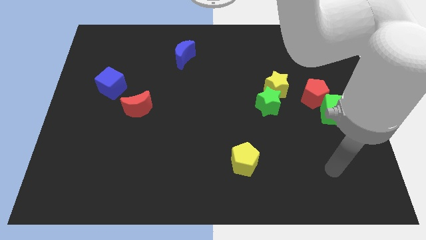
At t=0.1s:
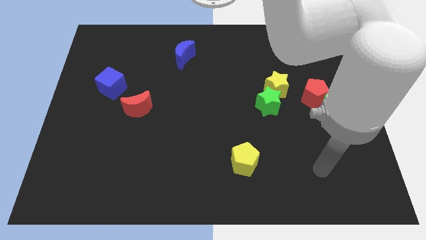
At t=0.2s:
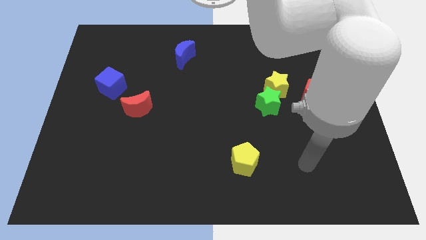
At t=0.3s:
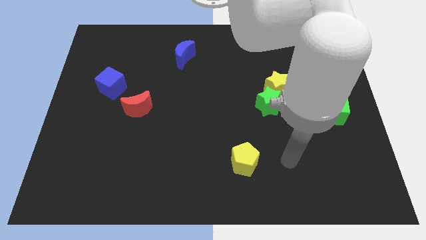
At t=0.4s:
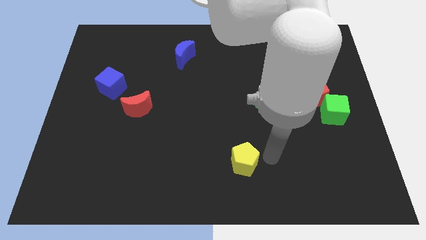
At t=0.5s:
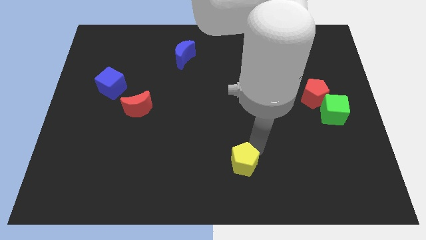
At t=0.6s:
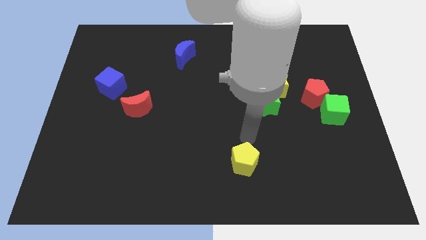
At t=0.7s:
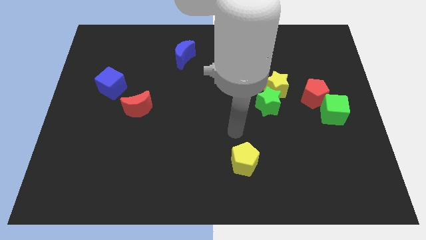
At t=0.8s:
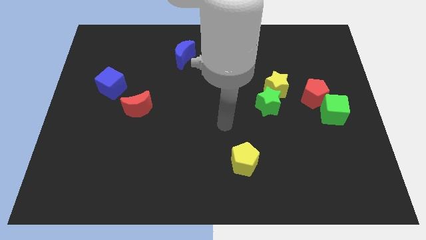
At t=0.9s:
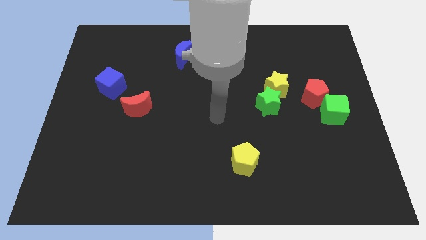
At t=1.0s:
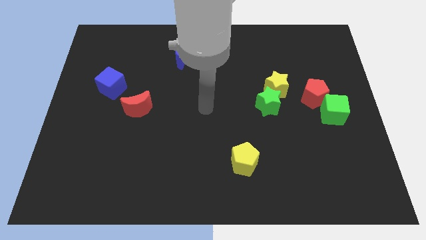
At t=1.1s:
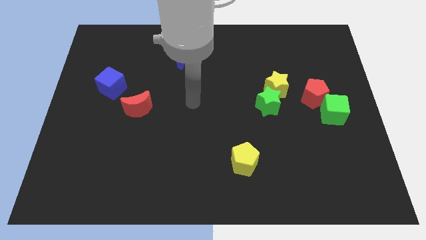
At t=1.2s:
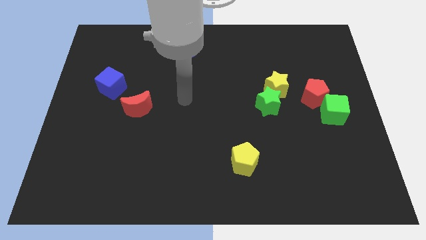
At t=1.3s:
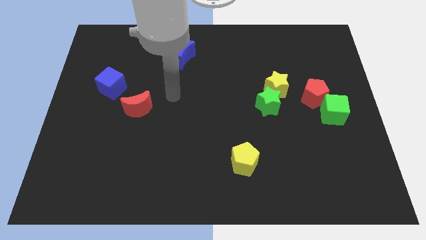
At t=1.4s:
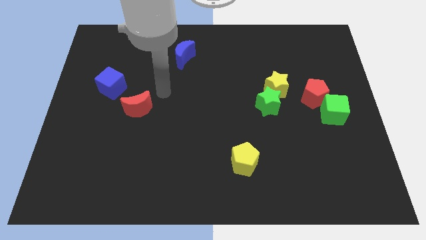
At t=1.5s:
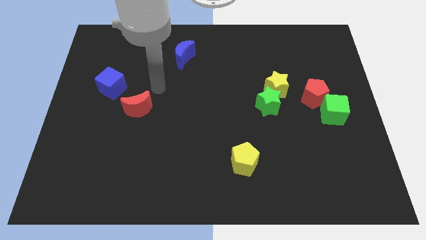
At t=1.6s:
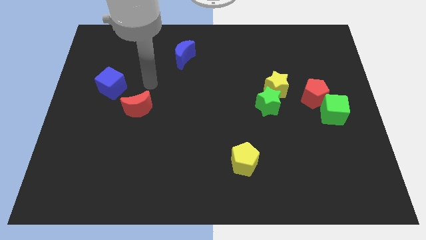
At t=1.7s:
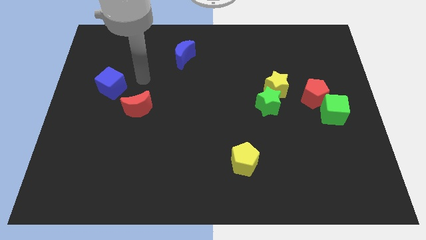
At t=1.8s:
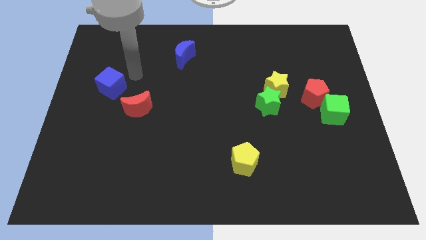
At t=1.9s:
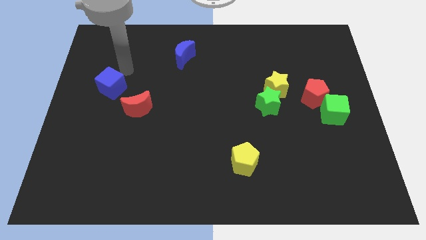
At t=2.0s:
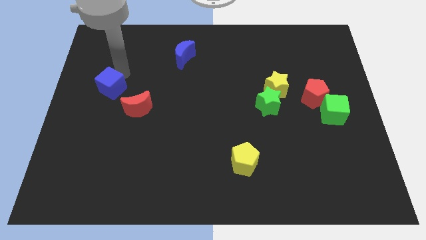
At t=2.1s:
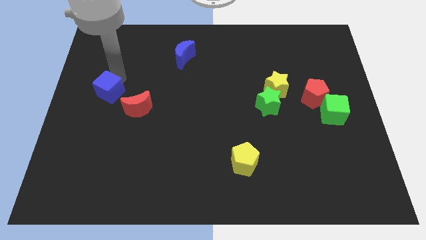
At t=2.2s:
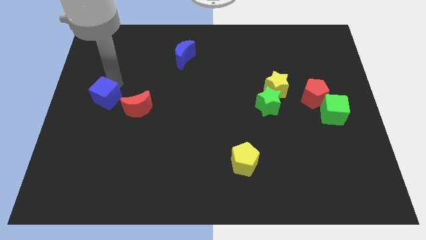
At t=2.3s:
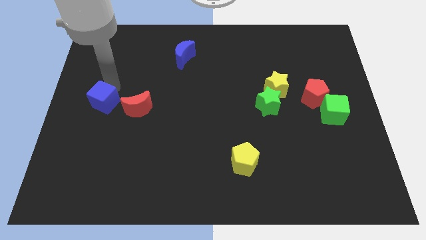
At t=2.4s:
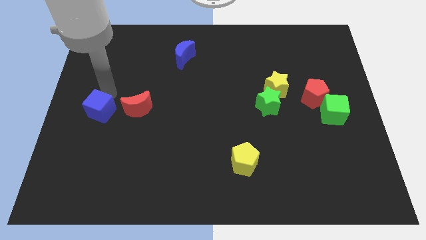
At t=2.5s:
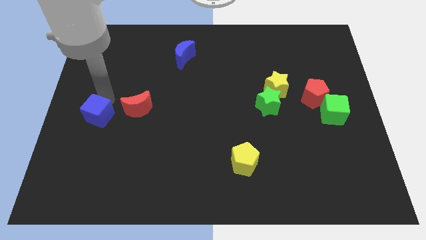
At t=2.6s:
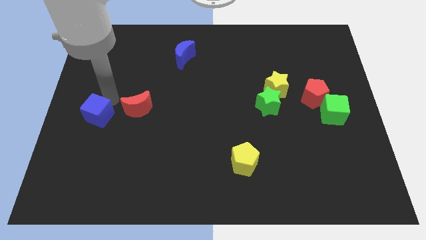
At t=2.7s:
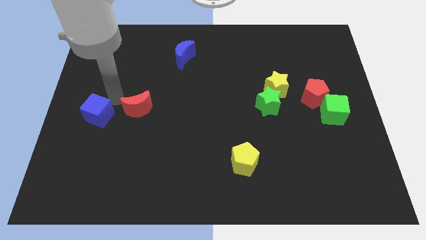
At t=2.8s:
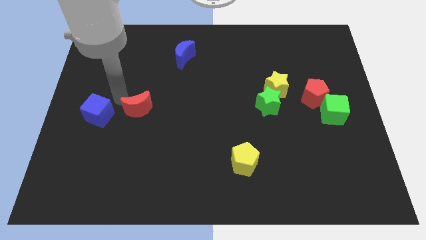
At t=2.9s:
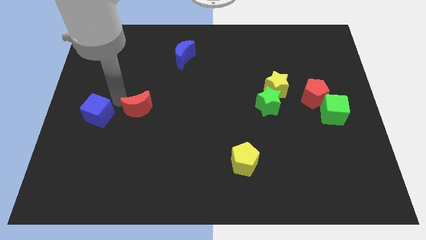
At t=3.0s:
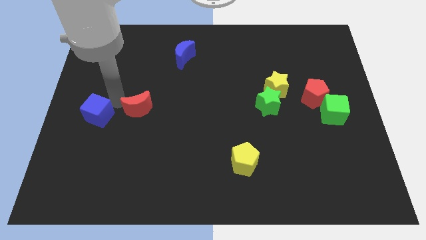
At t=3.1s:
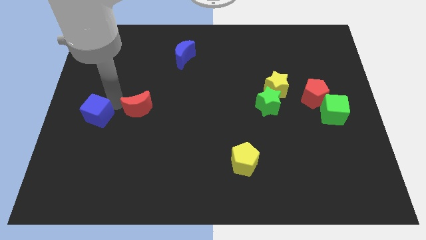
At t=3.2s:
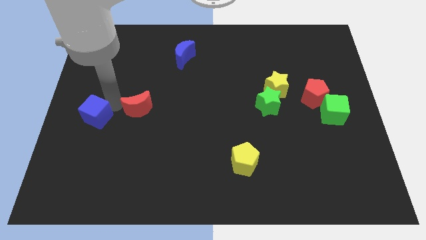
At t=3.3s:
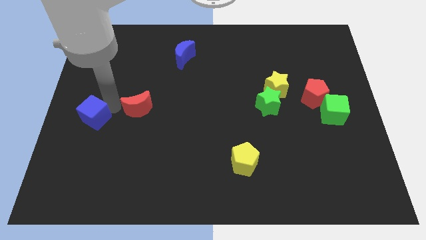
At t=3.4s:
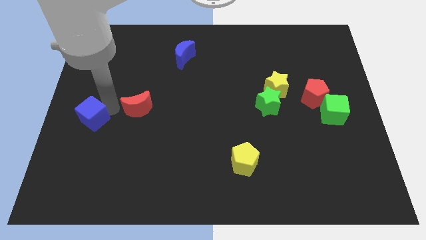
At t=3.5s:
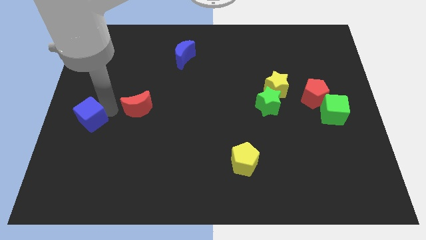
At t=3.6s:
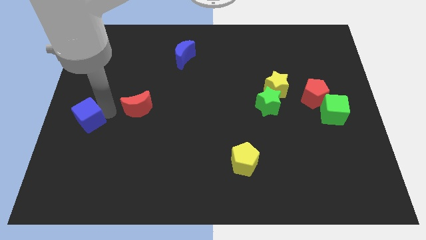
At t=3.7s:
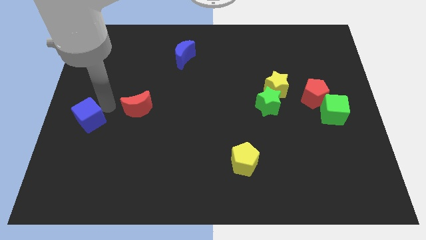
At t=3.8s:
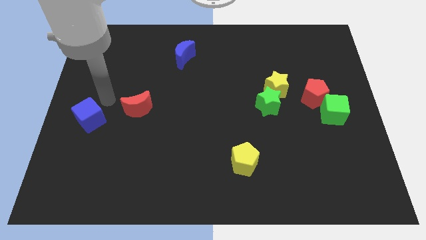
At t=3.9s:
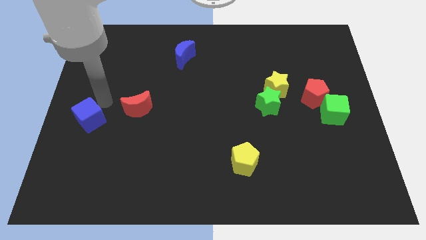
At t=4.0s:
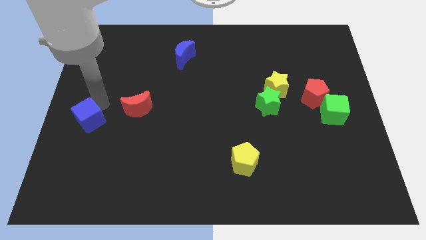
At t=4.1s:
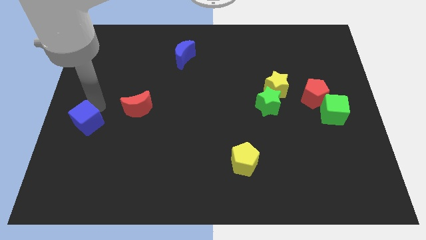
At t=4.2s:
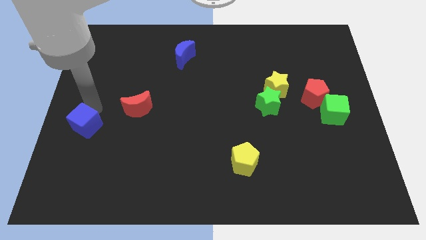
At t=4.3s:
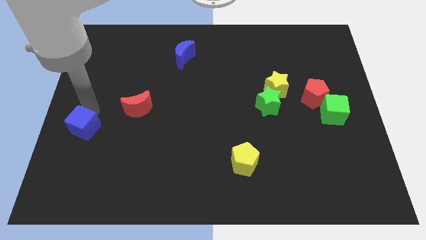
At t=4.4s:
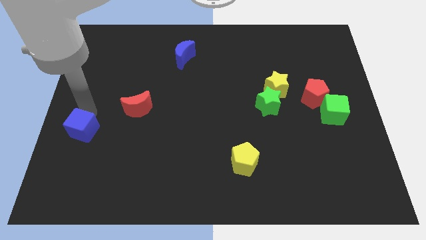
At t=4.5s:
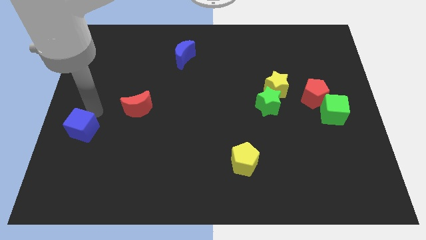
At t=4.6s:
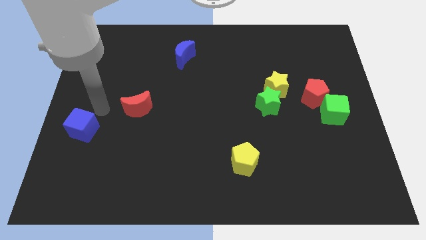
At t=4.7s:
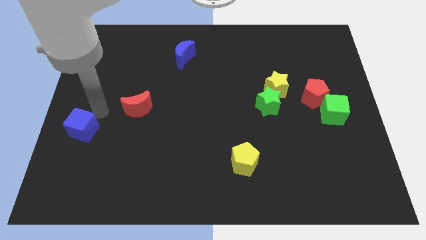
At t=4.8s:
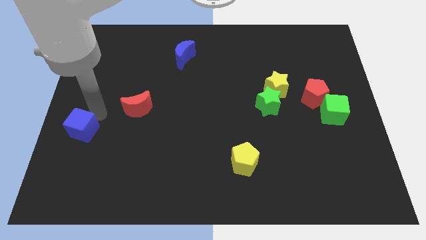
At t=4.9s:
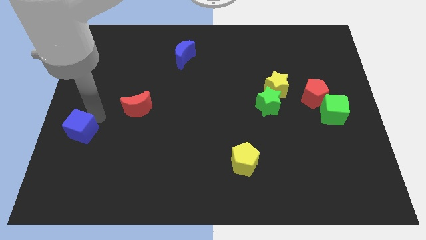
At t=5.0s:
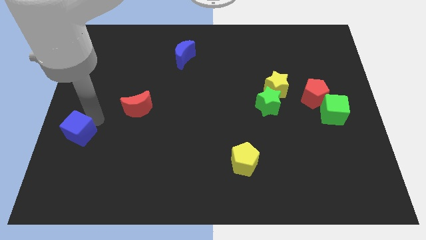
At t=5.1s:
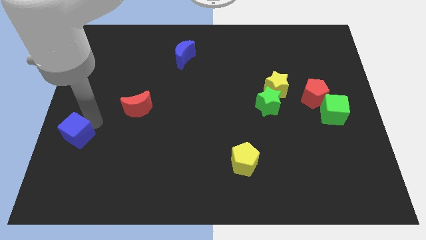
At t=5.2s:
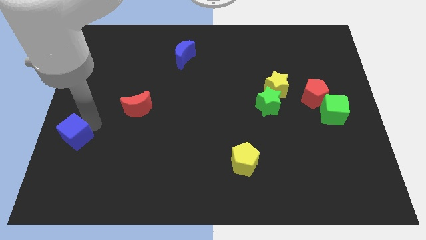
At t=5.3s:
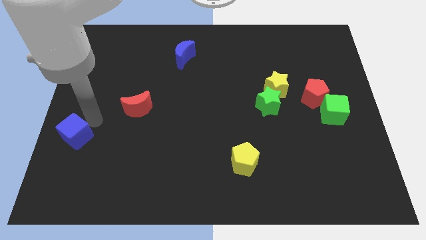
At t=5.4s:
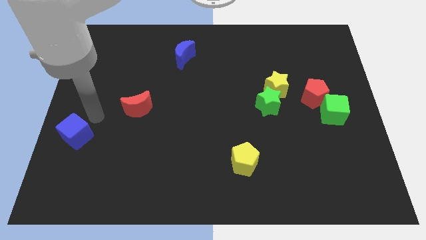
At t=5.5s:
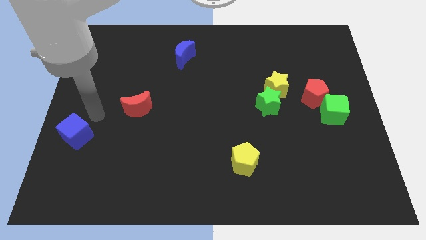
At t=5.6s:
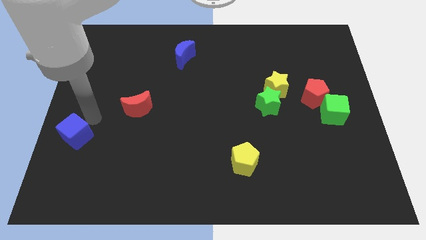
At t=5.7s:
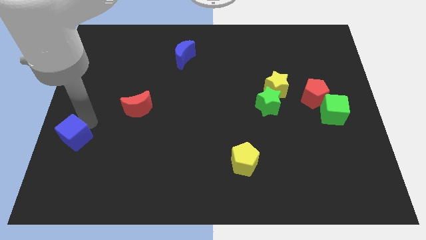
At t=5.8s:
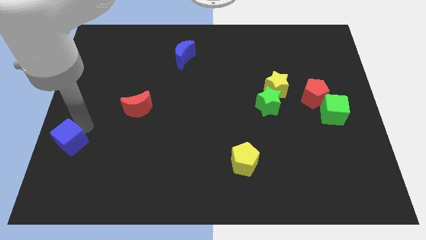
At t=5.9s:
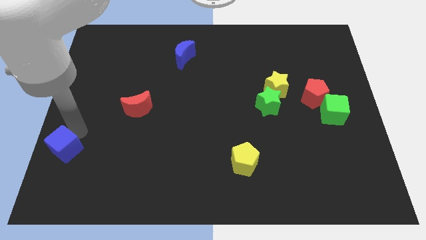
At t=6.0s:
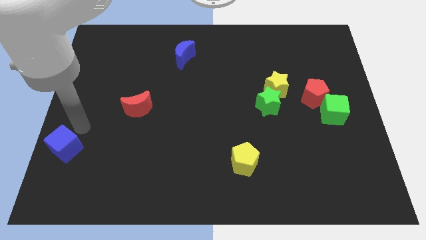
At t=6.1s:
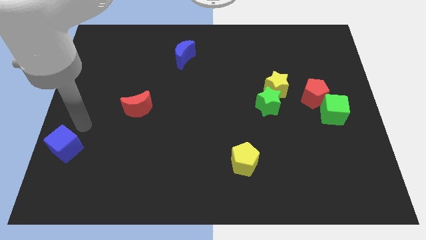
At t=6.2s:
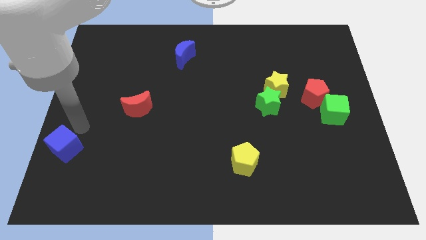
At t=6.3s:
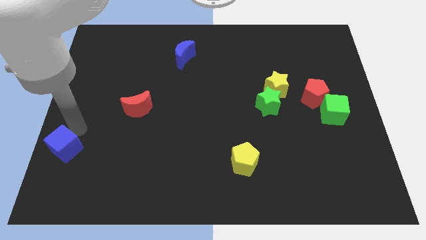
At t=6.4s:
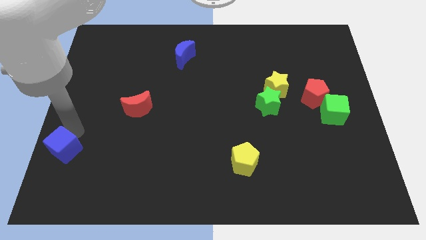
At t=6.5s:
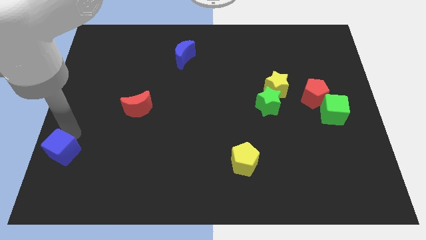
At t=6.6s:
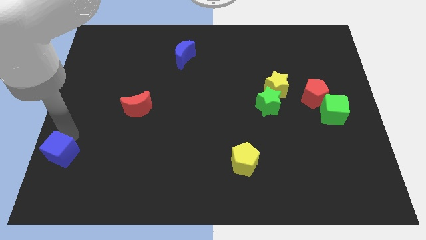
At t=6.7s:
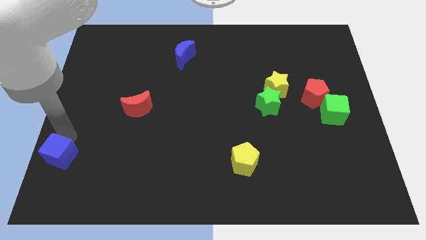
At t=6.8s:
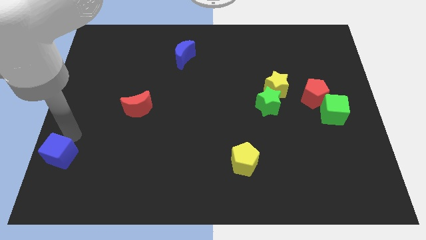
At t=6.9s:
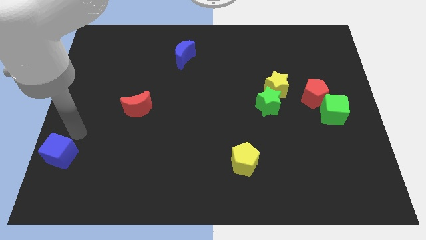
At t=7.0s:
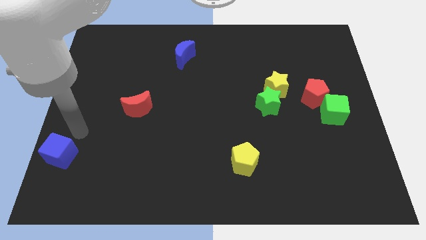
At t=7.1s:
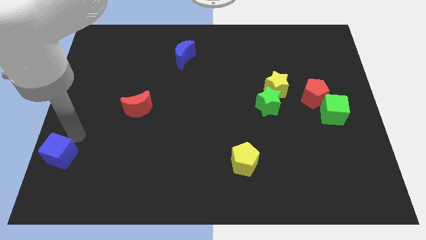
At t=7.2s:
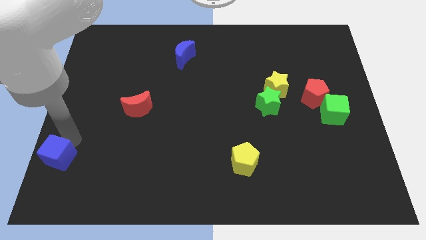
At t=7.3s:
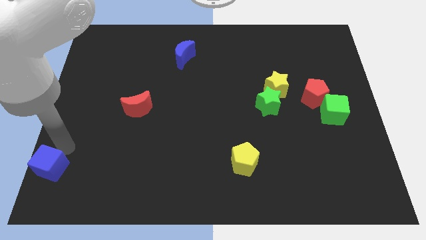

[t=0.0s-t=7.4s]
put the blue cube to the lower left corner

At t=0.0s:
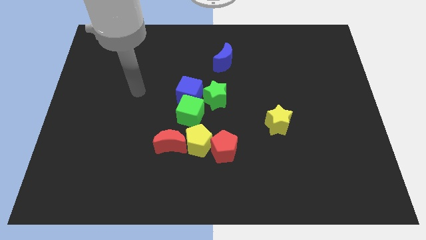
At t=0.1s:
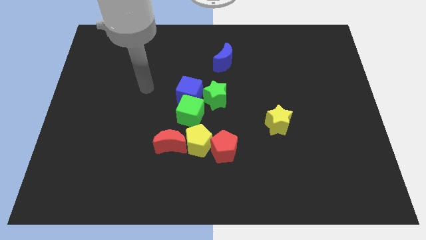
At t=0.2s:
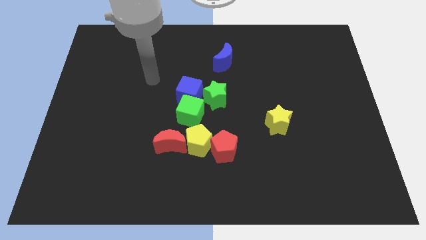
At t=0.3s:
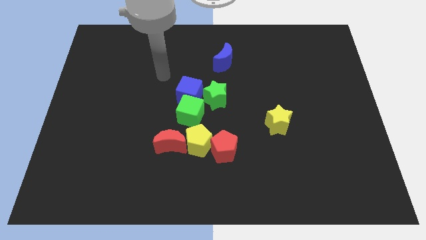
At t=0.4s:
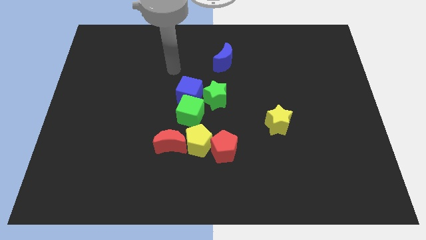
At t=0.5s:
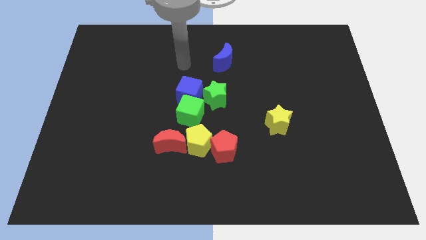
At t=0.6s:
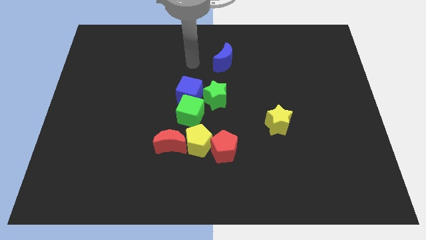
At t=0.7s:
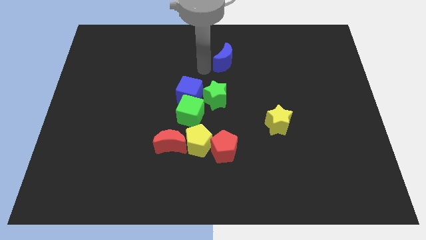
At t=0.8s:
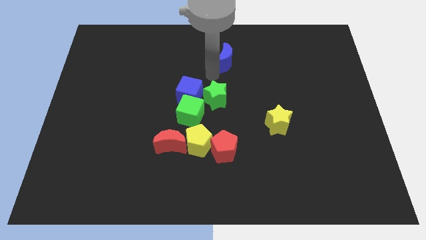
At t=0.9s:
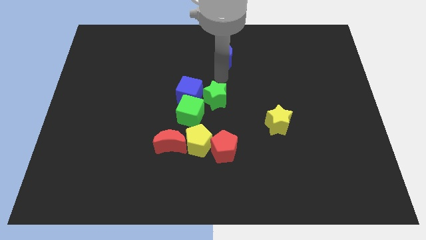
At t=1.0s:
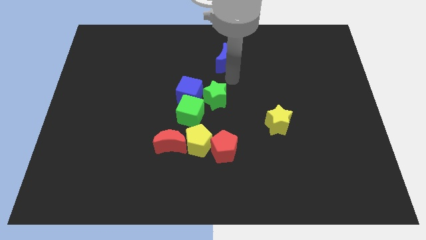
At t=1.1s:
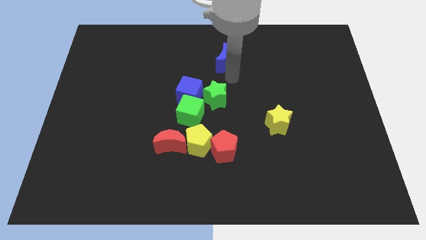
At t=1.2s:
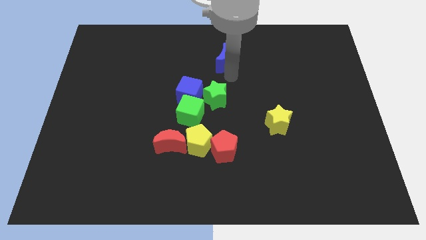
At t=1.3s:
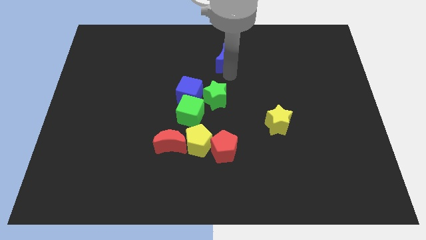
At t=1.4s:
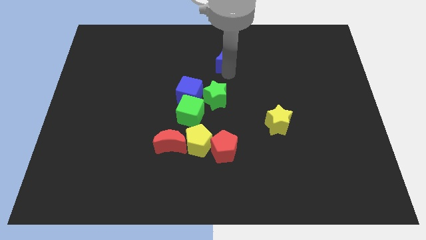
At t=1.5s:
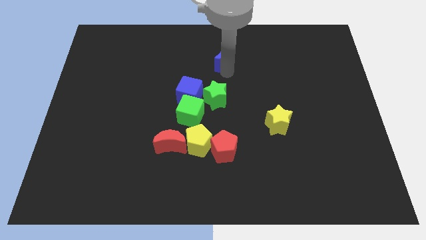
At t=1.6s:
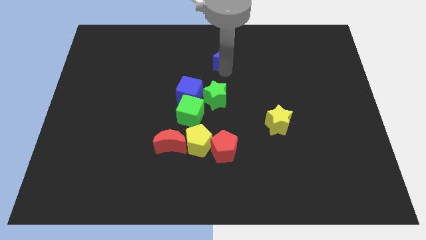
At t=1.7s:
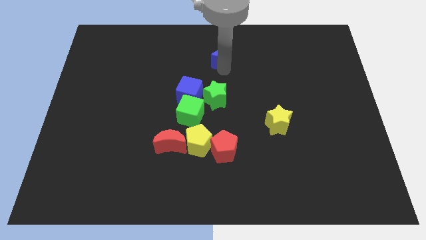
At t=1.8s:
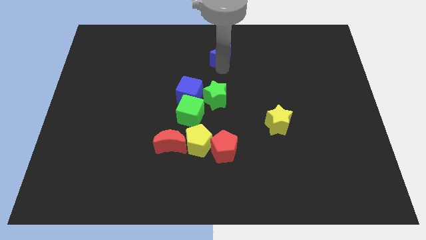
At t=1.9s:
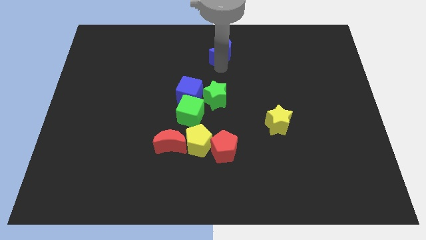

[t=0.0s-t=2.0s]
slide the blue moon to the top side
